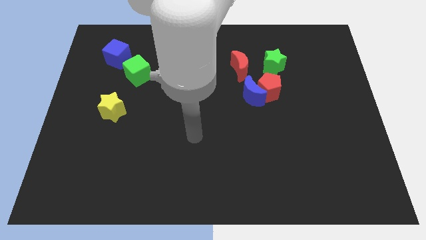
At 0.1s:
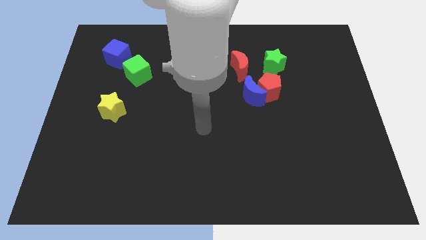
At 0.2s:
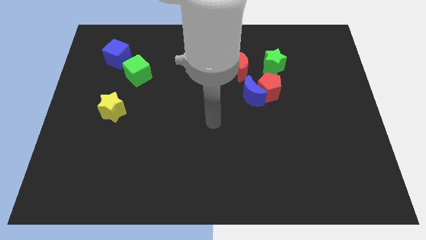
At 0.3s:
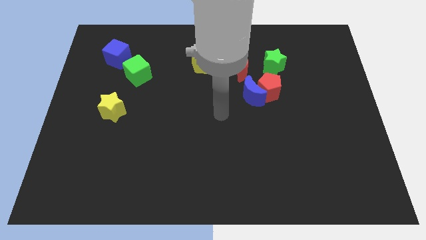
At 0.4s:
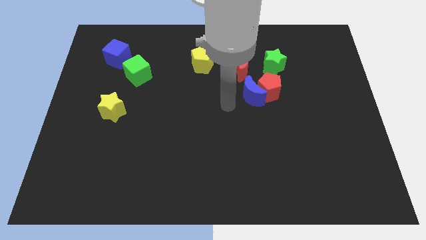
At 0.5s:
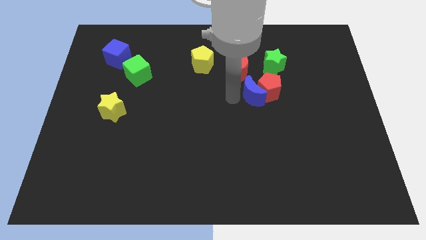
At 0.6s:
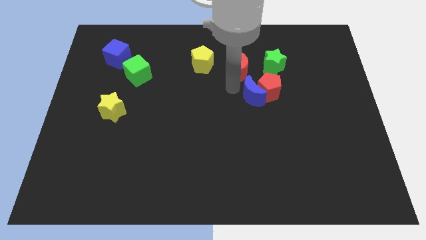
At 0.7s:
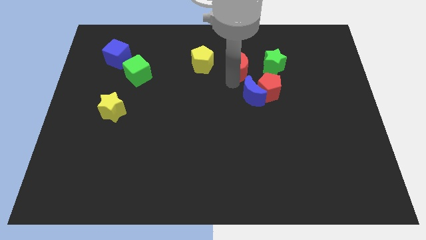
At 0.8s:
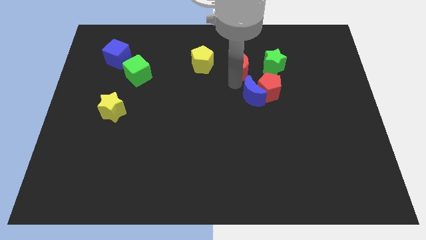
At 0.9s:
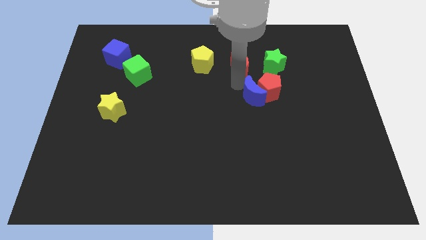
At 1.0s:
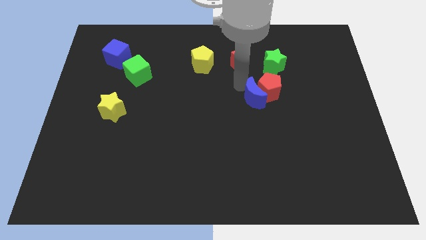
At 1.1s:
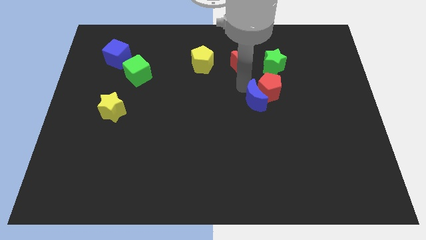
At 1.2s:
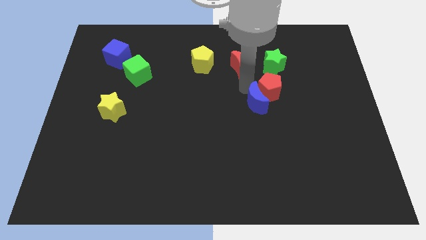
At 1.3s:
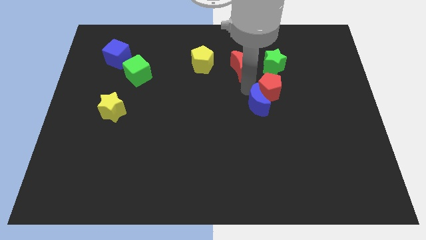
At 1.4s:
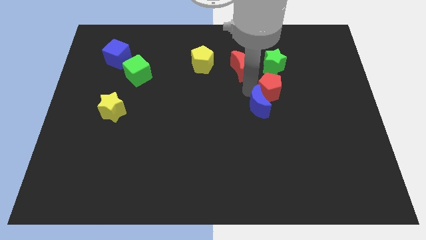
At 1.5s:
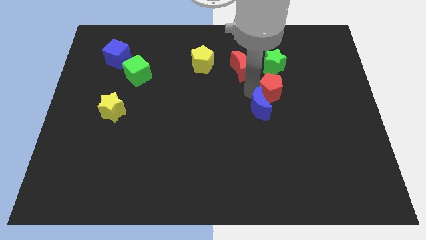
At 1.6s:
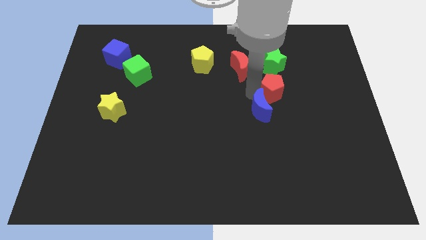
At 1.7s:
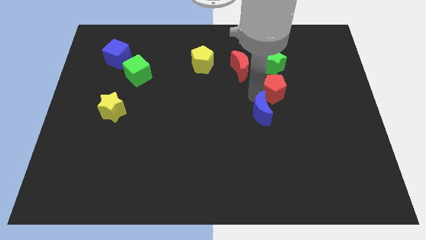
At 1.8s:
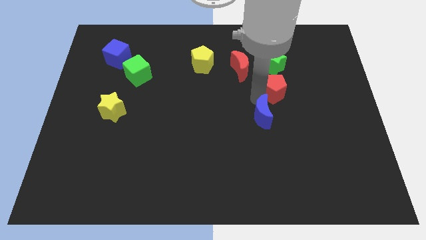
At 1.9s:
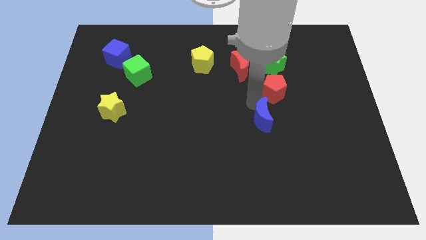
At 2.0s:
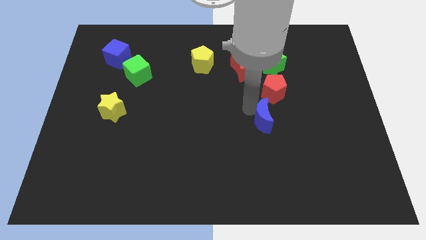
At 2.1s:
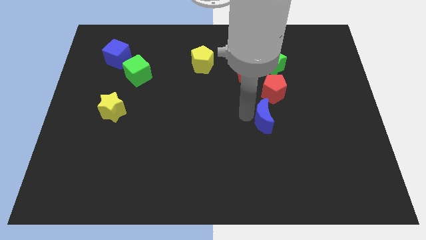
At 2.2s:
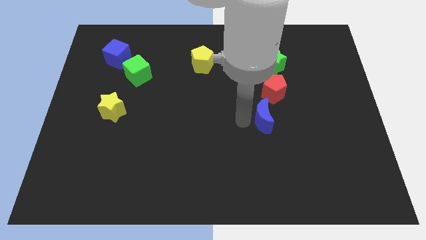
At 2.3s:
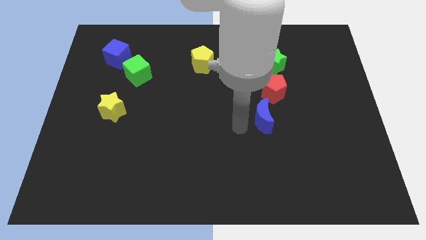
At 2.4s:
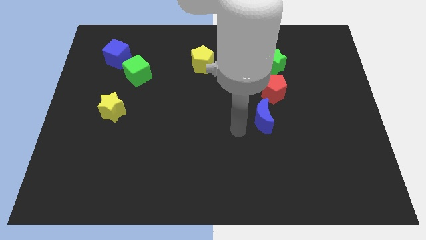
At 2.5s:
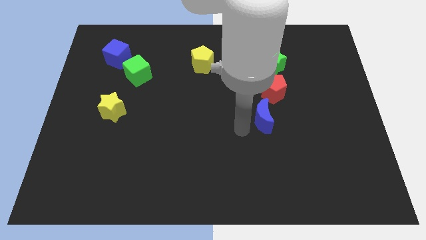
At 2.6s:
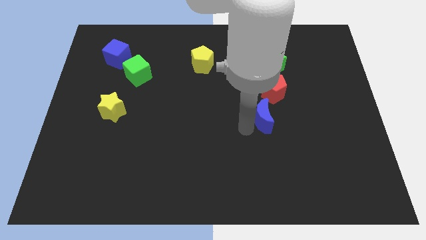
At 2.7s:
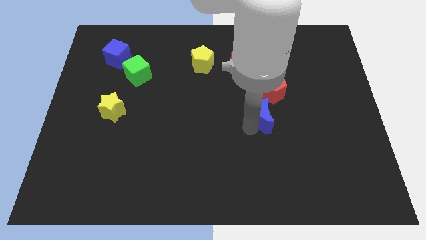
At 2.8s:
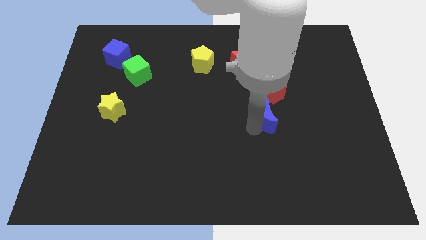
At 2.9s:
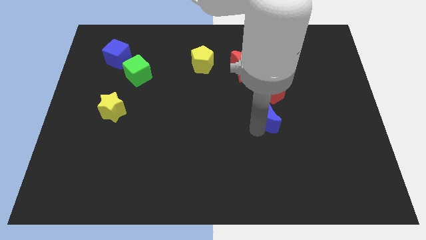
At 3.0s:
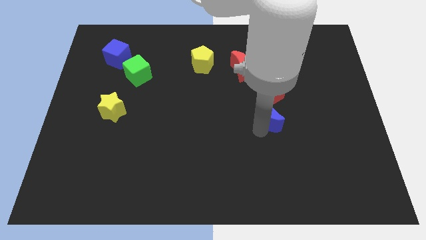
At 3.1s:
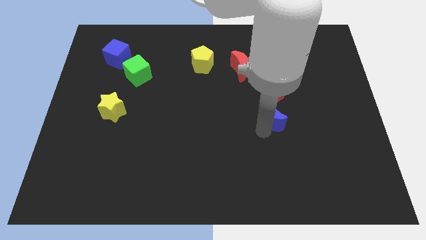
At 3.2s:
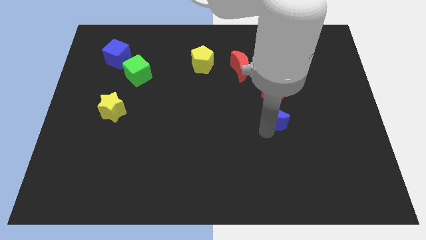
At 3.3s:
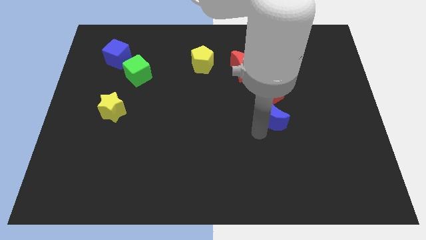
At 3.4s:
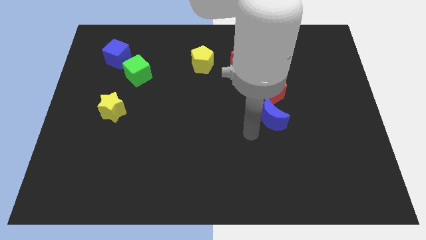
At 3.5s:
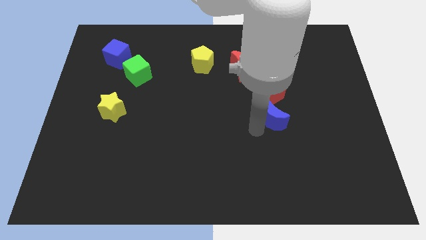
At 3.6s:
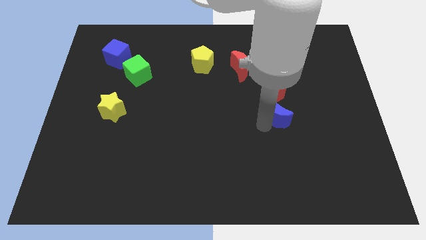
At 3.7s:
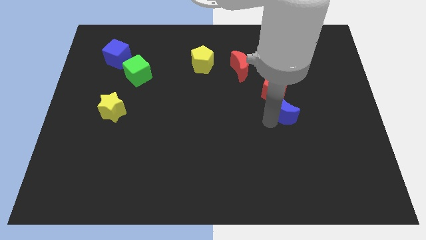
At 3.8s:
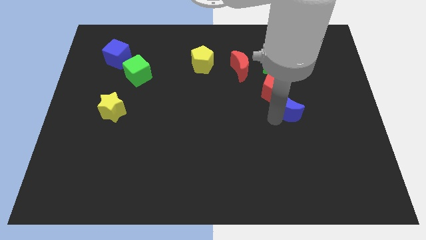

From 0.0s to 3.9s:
slightly push the blue moon to the right

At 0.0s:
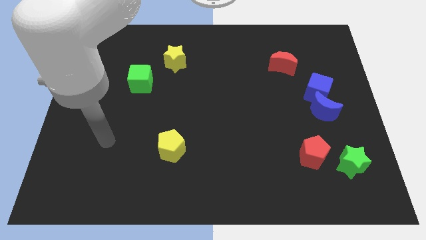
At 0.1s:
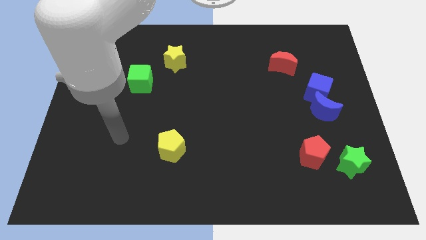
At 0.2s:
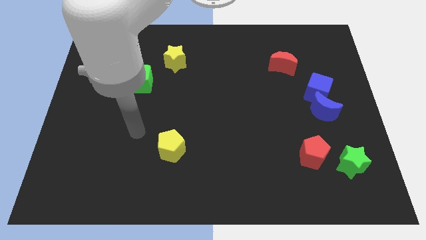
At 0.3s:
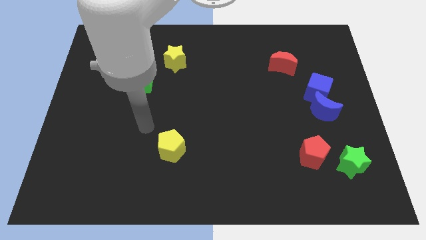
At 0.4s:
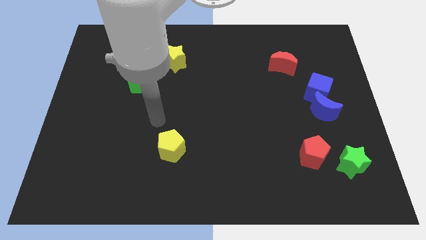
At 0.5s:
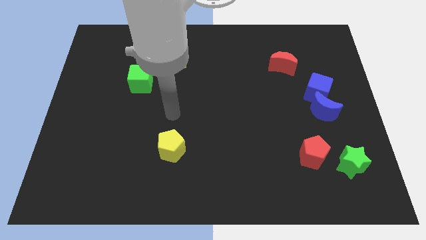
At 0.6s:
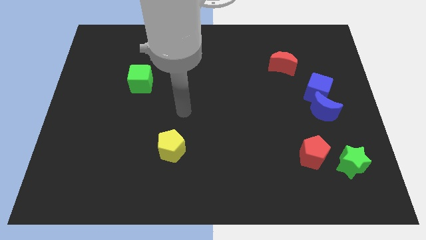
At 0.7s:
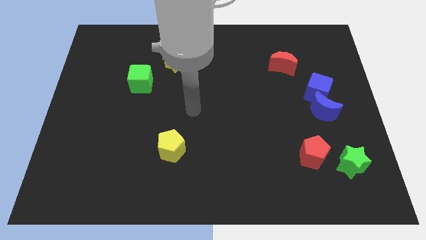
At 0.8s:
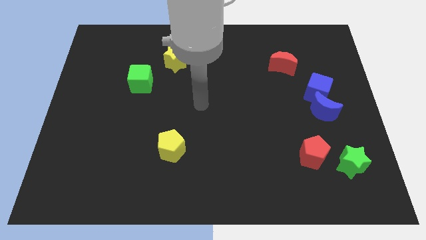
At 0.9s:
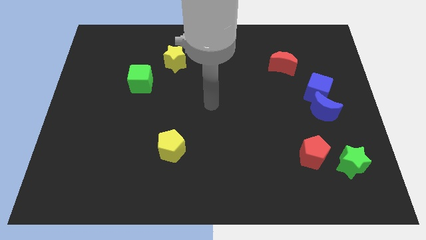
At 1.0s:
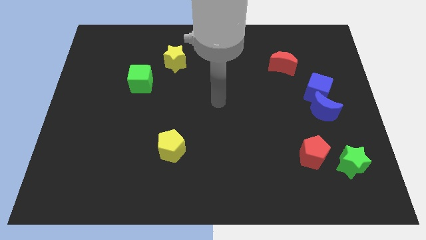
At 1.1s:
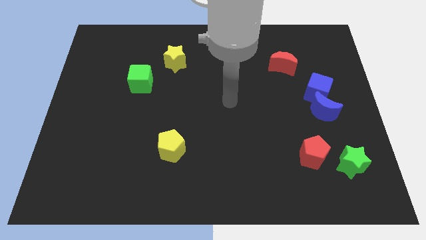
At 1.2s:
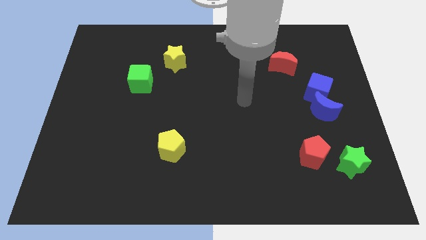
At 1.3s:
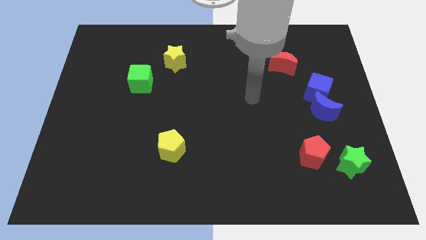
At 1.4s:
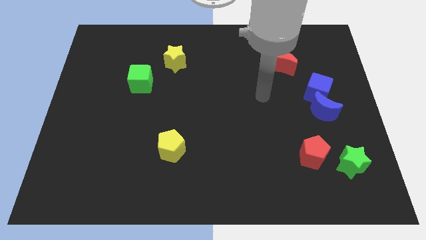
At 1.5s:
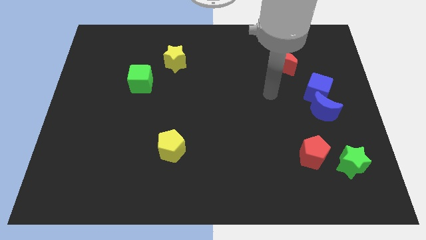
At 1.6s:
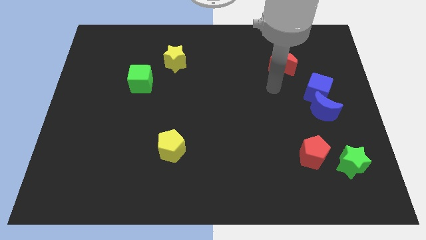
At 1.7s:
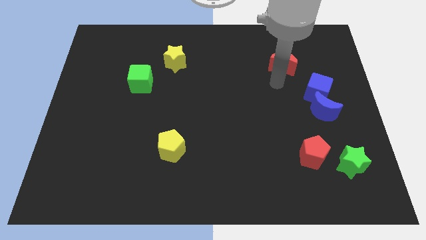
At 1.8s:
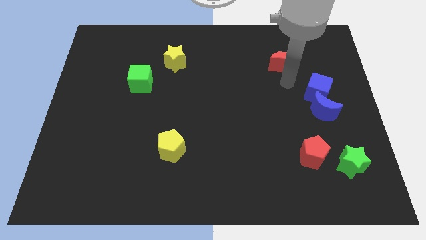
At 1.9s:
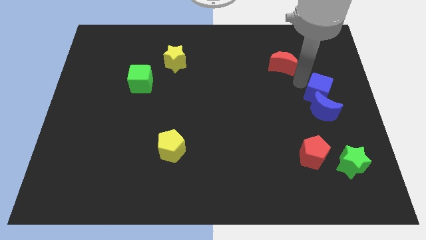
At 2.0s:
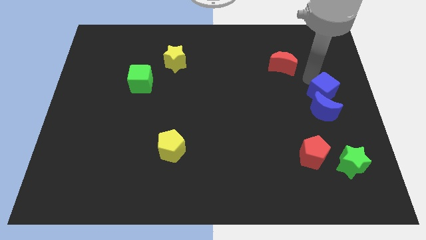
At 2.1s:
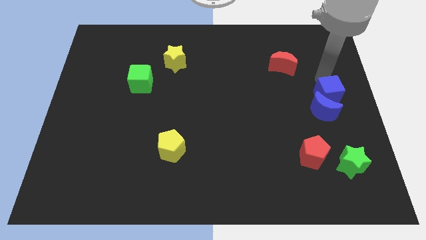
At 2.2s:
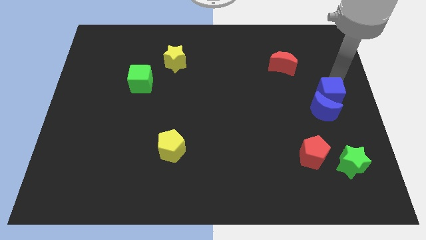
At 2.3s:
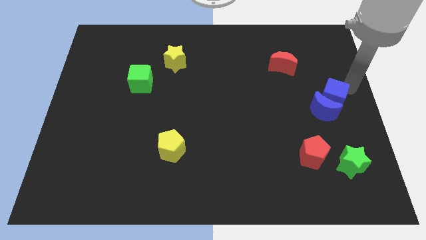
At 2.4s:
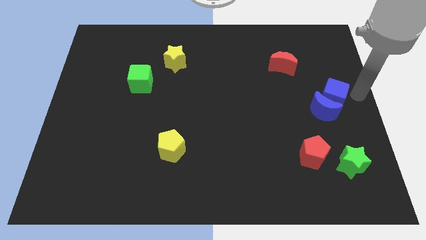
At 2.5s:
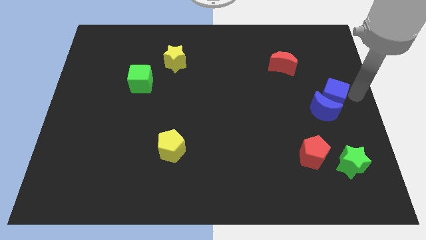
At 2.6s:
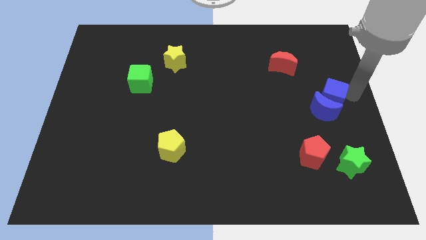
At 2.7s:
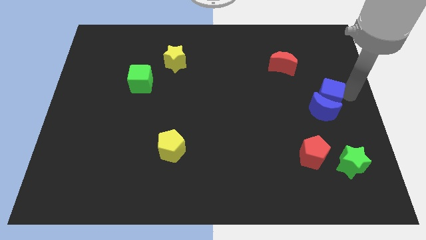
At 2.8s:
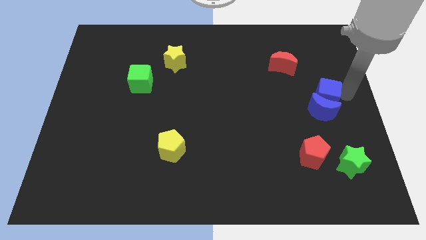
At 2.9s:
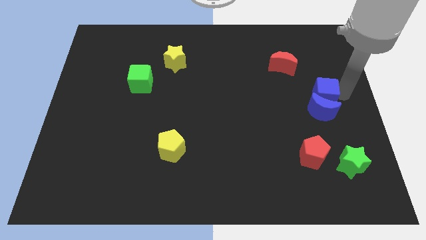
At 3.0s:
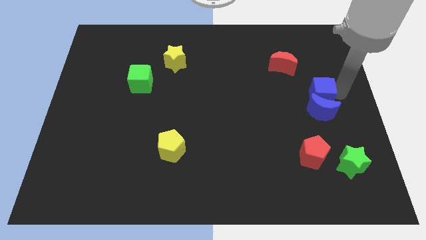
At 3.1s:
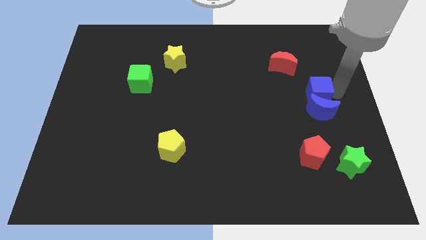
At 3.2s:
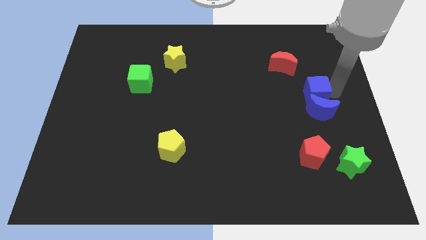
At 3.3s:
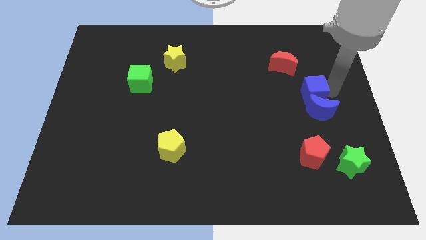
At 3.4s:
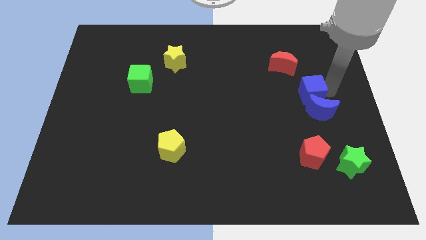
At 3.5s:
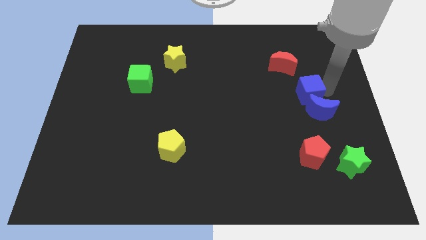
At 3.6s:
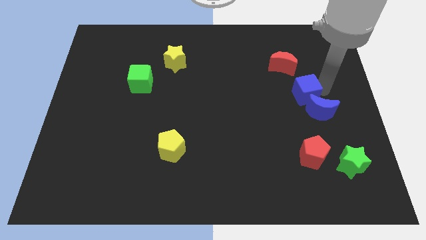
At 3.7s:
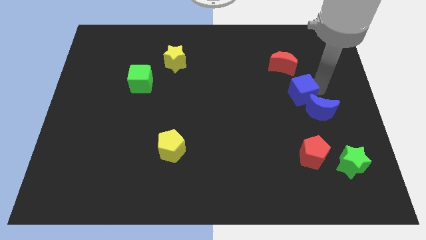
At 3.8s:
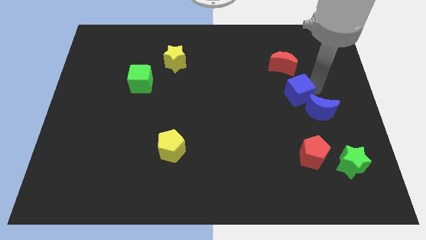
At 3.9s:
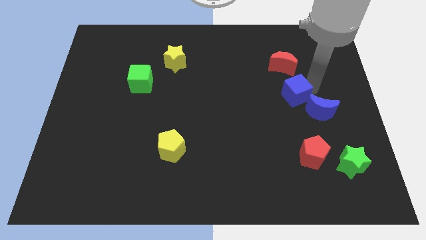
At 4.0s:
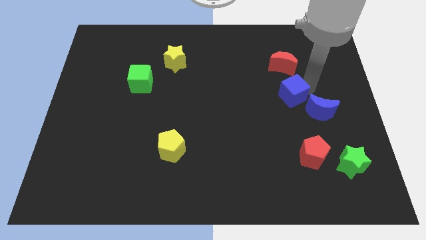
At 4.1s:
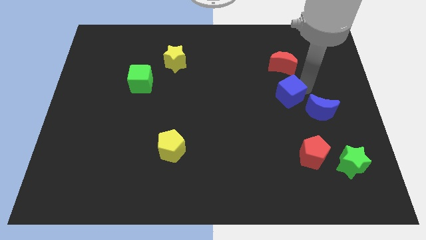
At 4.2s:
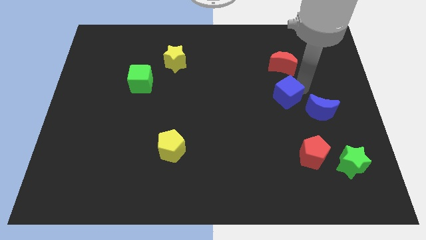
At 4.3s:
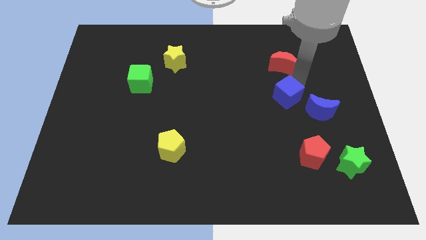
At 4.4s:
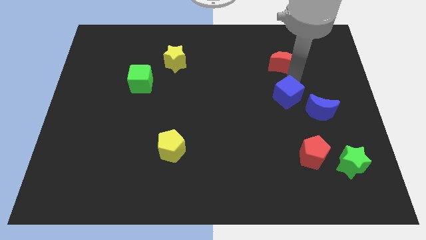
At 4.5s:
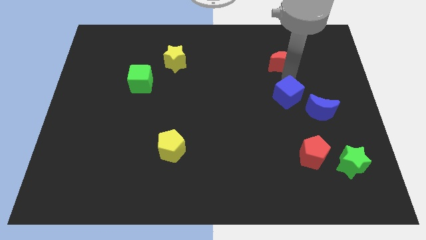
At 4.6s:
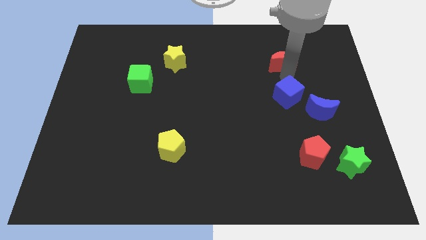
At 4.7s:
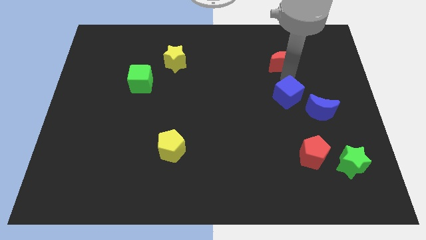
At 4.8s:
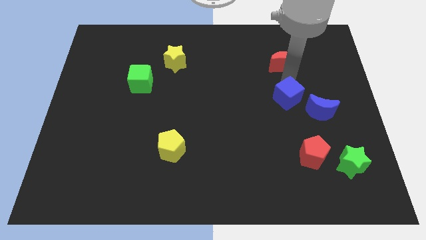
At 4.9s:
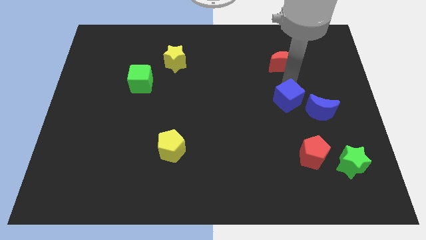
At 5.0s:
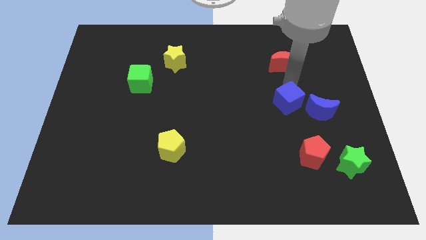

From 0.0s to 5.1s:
slide the blue cube diagonally downwards and left slightly
